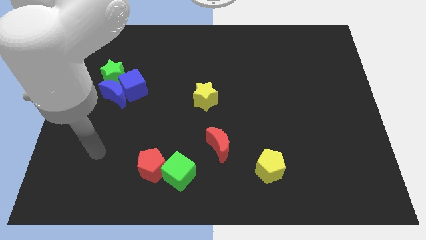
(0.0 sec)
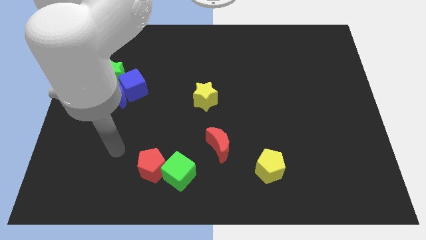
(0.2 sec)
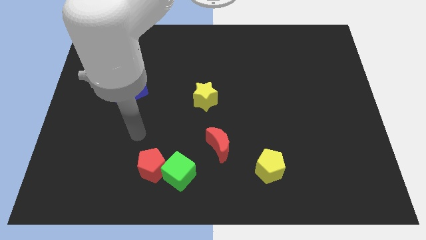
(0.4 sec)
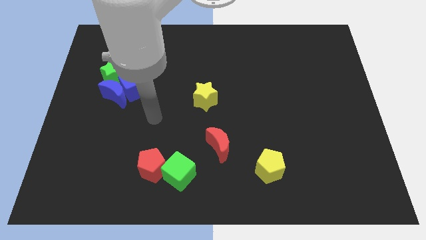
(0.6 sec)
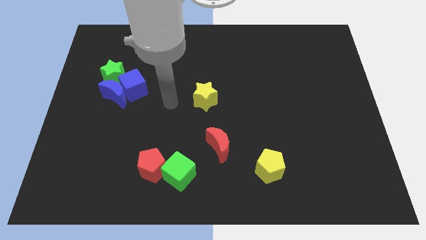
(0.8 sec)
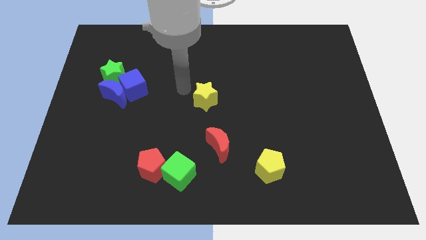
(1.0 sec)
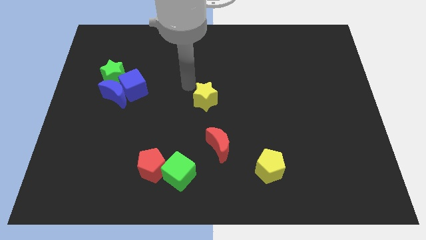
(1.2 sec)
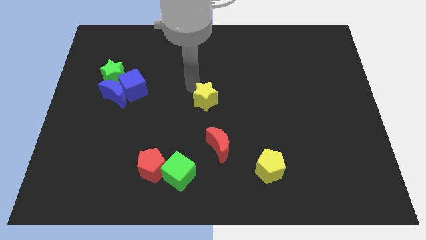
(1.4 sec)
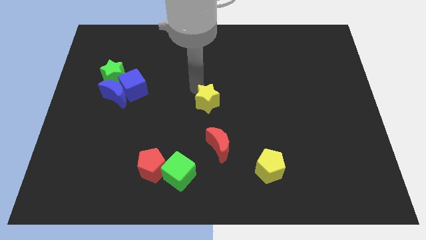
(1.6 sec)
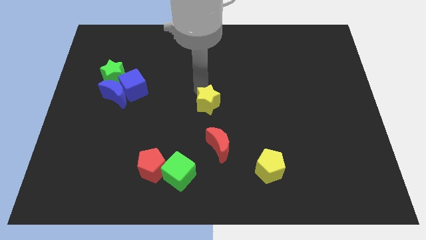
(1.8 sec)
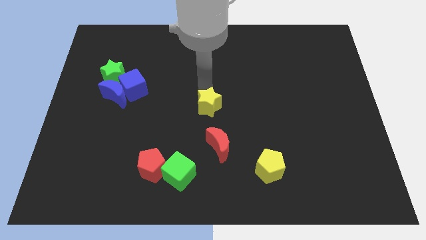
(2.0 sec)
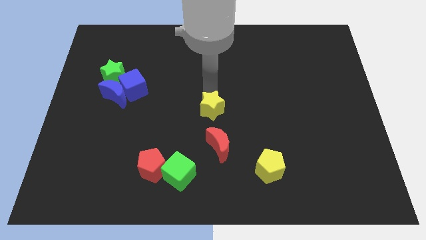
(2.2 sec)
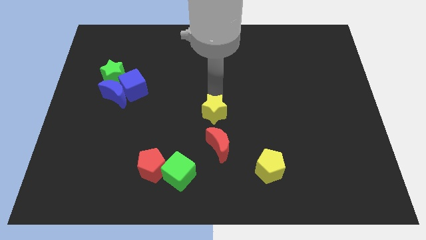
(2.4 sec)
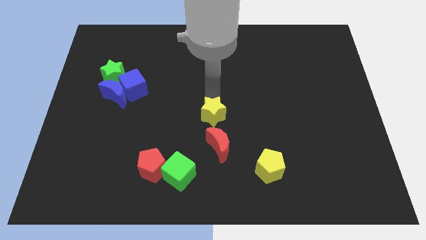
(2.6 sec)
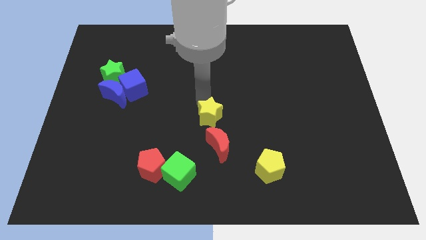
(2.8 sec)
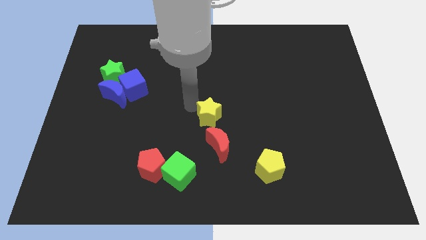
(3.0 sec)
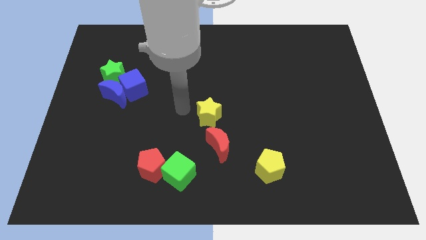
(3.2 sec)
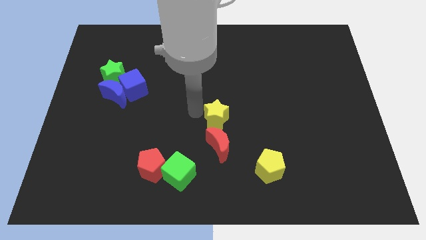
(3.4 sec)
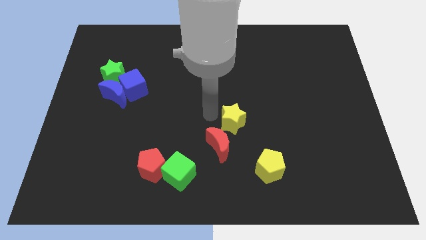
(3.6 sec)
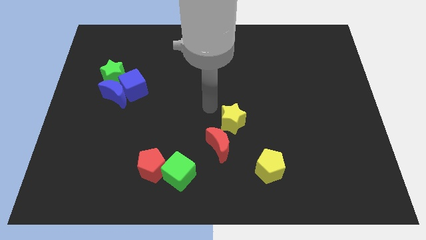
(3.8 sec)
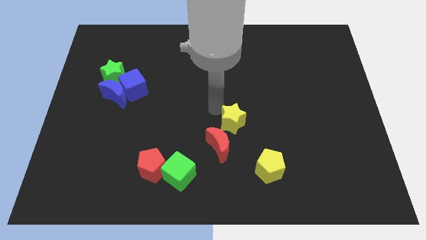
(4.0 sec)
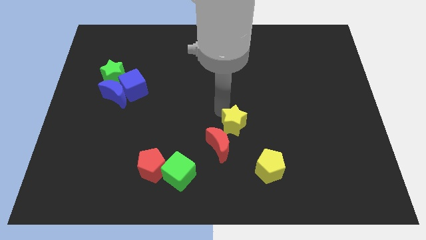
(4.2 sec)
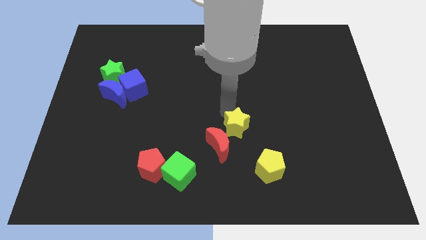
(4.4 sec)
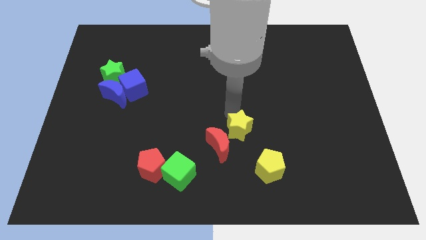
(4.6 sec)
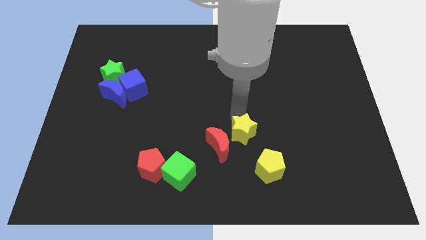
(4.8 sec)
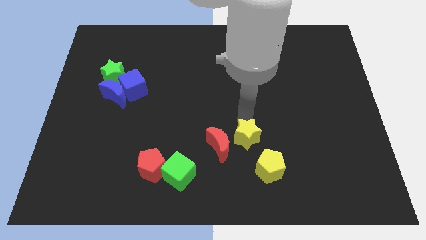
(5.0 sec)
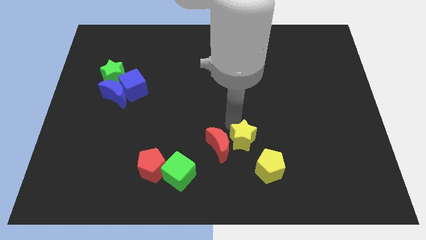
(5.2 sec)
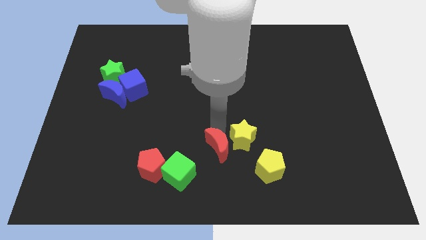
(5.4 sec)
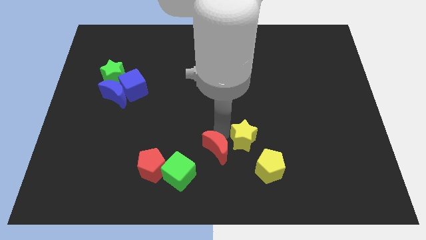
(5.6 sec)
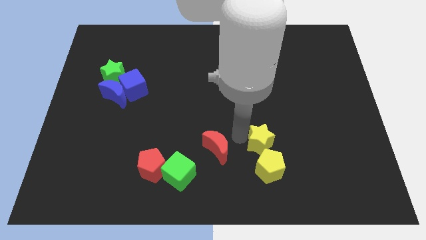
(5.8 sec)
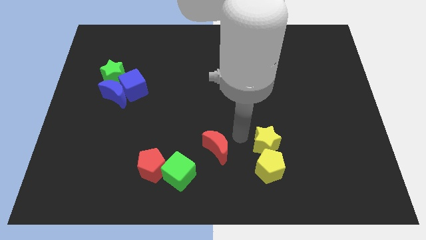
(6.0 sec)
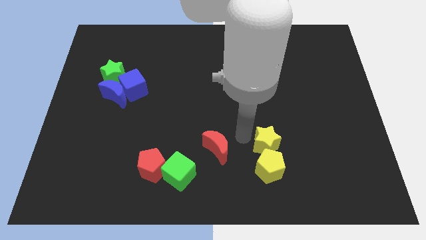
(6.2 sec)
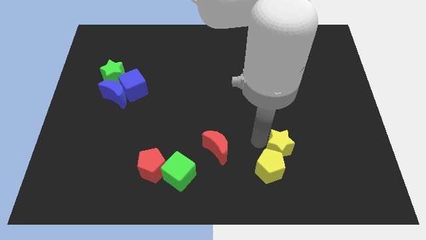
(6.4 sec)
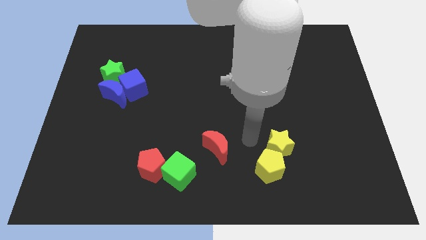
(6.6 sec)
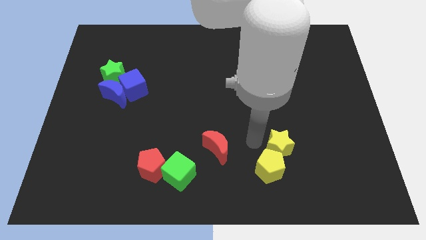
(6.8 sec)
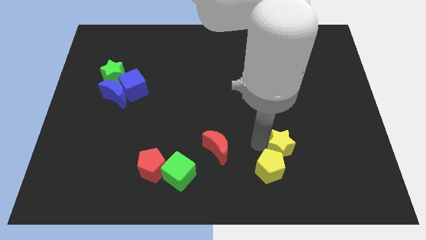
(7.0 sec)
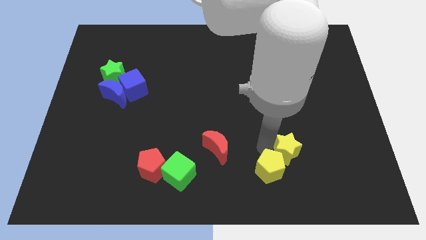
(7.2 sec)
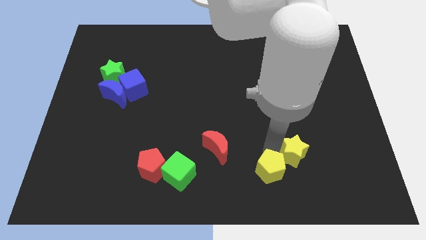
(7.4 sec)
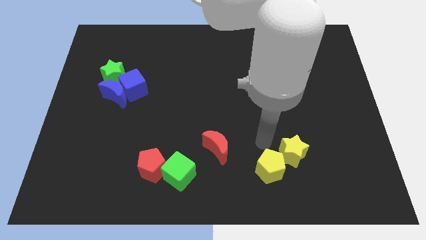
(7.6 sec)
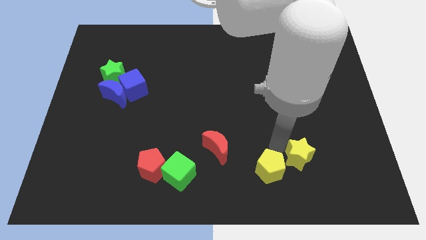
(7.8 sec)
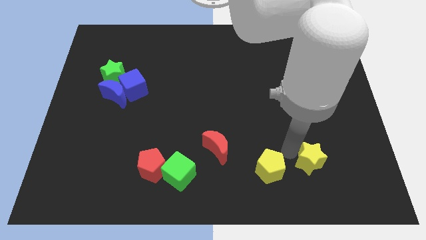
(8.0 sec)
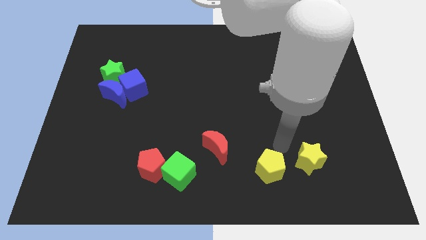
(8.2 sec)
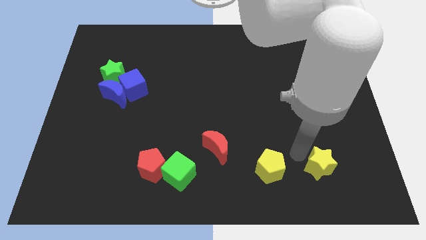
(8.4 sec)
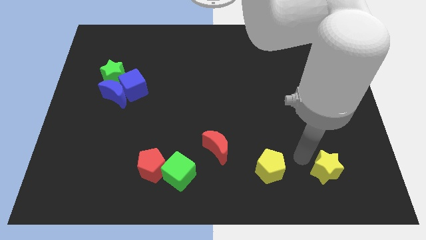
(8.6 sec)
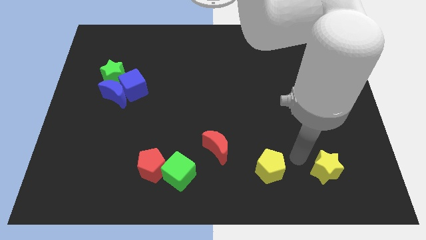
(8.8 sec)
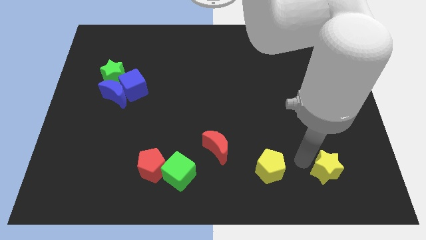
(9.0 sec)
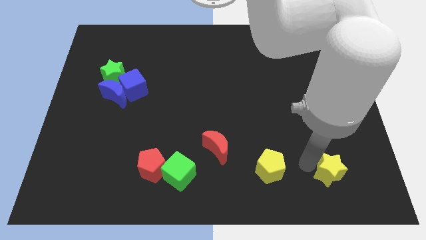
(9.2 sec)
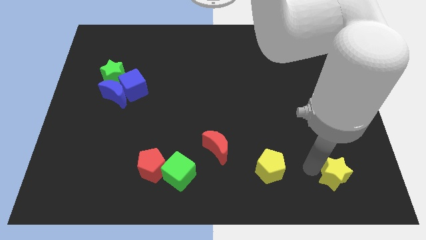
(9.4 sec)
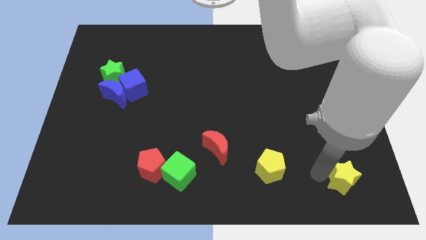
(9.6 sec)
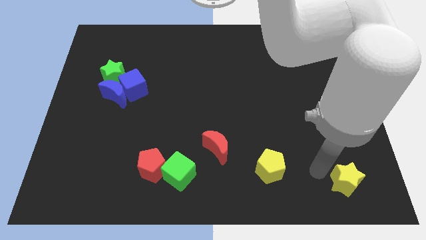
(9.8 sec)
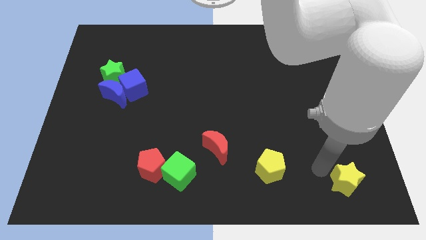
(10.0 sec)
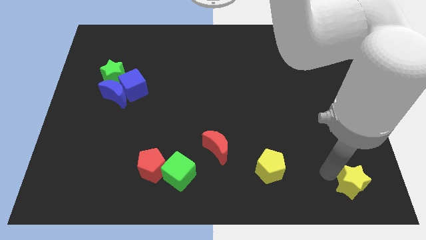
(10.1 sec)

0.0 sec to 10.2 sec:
put the yellow star to the lower right corner

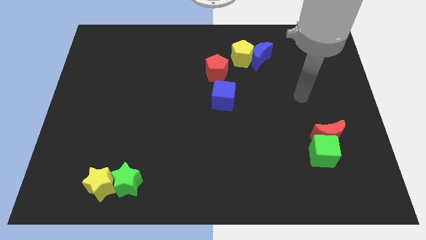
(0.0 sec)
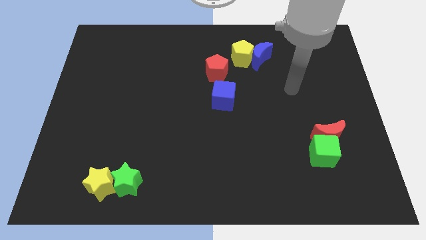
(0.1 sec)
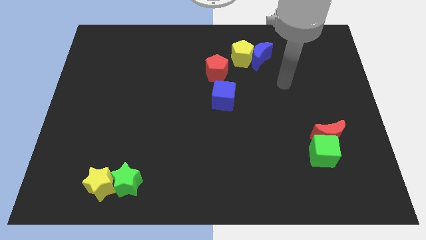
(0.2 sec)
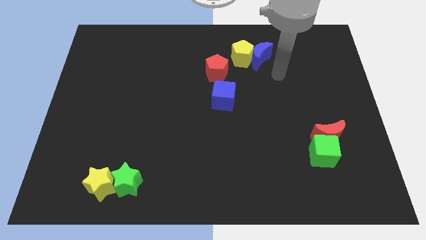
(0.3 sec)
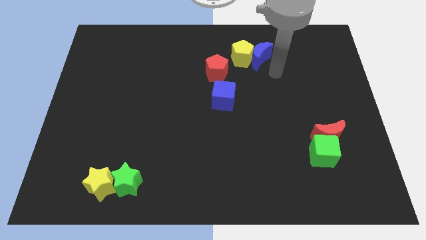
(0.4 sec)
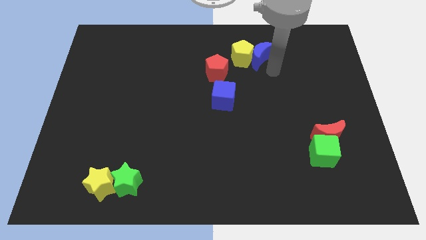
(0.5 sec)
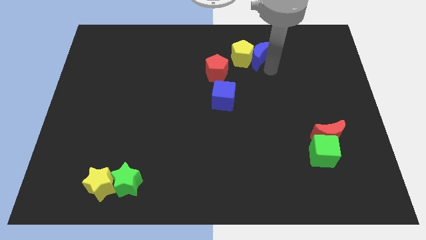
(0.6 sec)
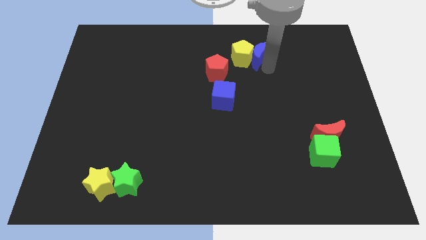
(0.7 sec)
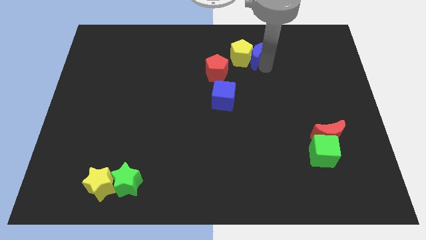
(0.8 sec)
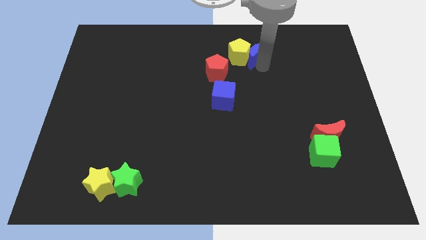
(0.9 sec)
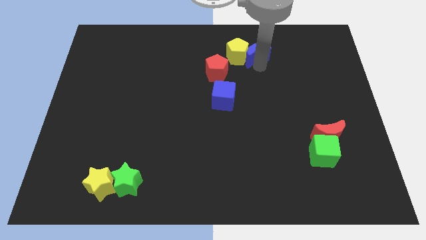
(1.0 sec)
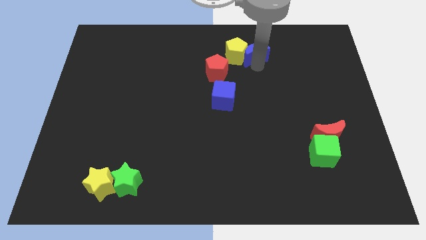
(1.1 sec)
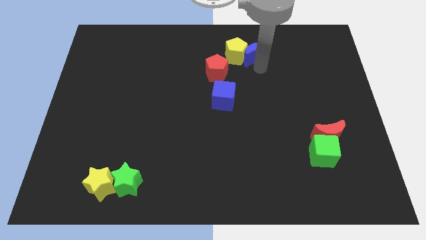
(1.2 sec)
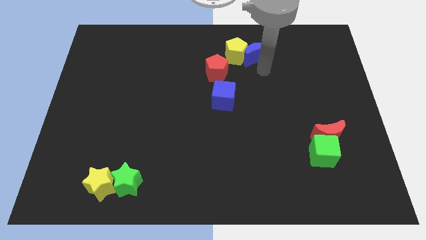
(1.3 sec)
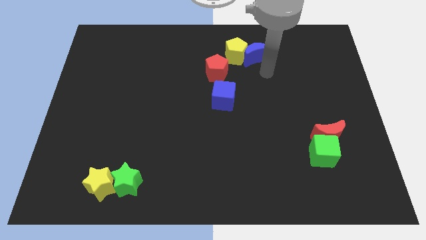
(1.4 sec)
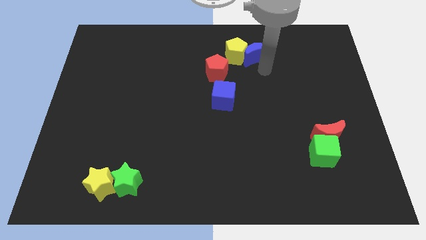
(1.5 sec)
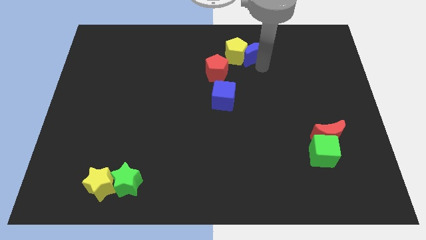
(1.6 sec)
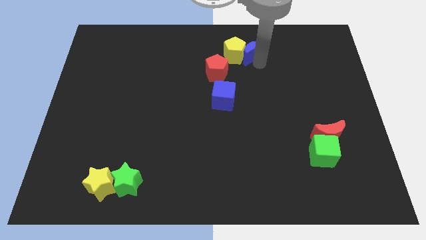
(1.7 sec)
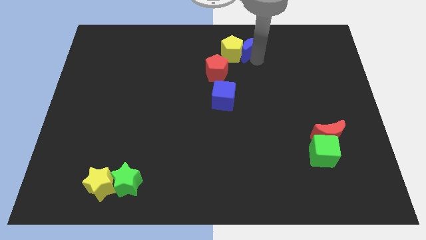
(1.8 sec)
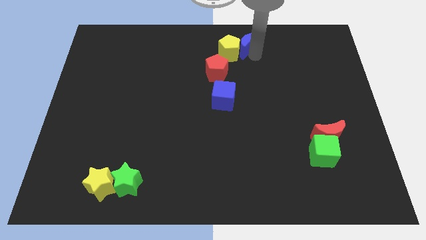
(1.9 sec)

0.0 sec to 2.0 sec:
move the blue moon to the top
